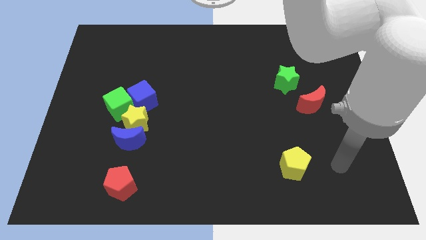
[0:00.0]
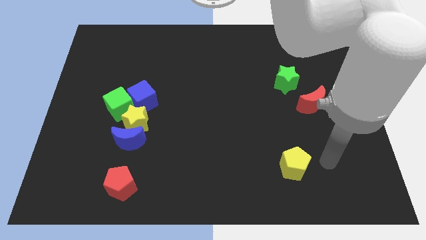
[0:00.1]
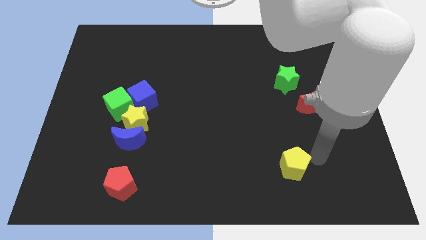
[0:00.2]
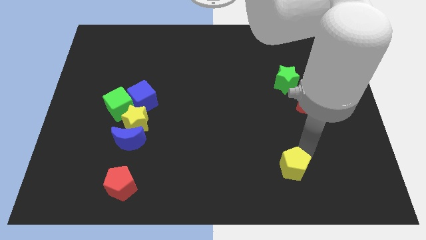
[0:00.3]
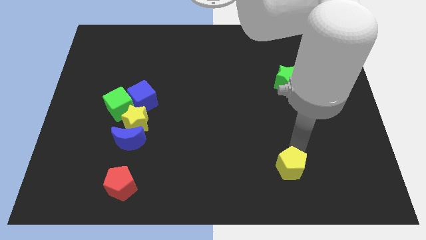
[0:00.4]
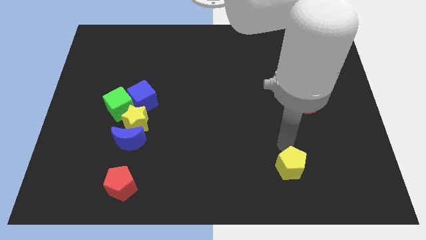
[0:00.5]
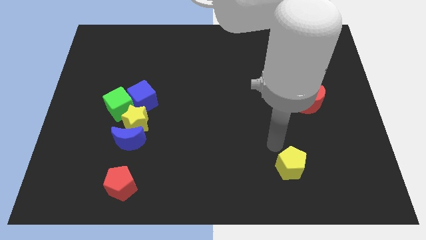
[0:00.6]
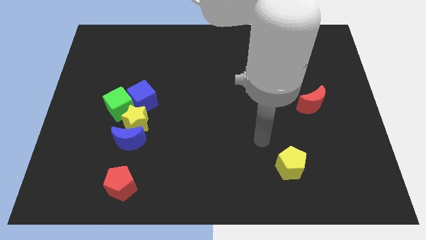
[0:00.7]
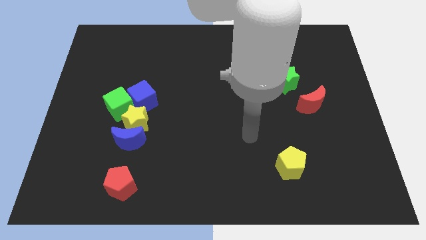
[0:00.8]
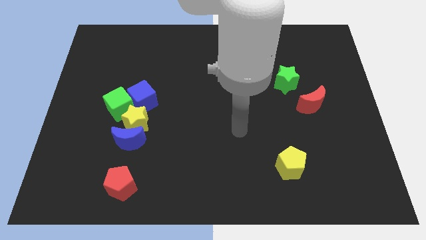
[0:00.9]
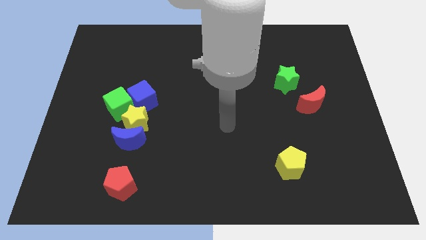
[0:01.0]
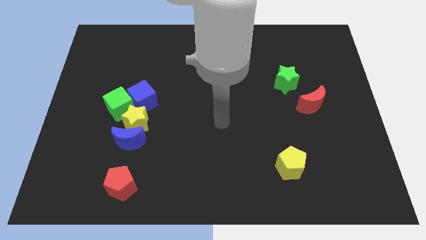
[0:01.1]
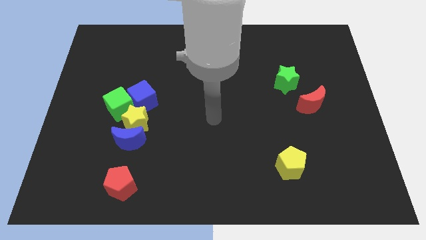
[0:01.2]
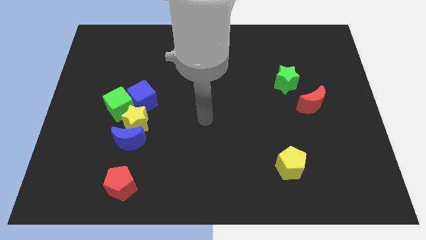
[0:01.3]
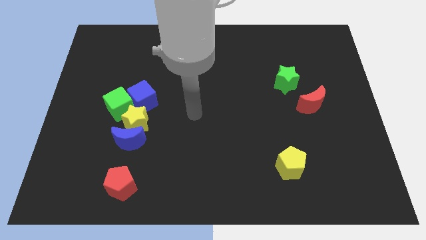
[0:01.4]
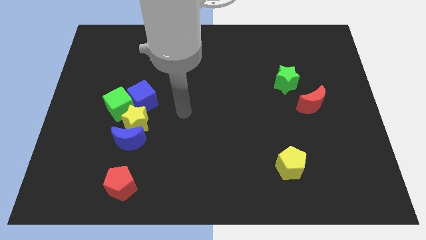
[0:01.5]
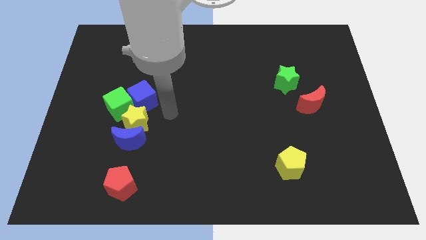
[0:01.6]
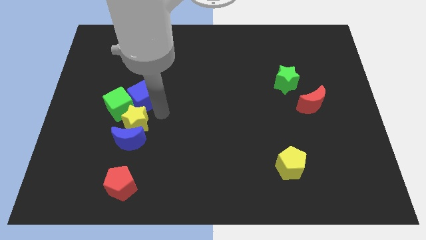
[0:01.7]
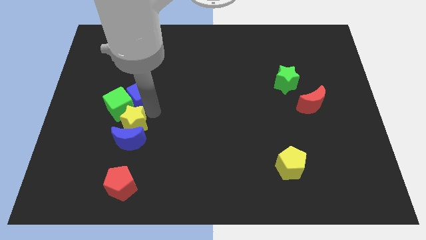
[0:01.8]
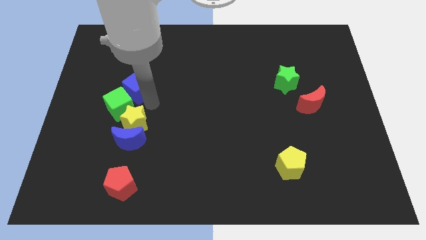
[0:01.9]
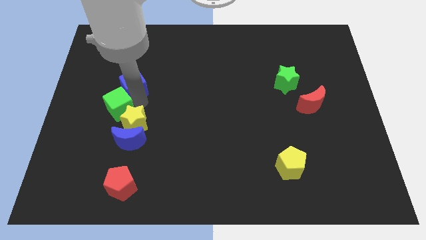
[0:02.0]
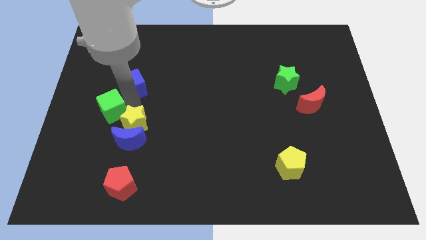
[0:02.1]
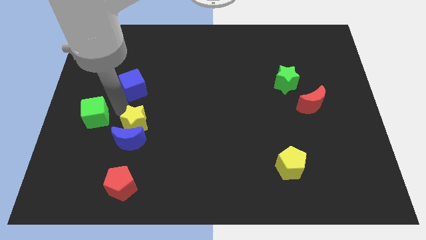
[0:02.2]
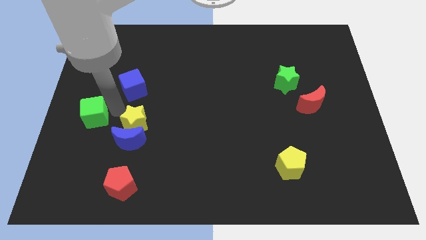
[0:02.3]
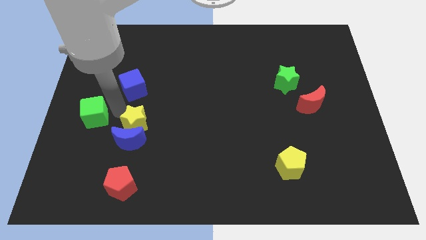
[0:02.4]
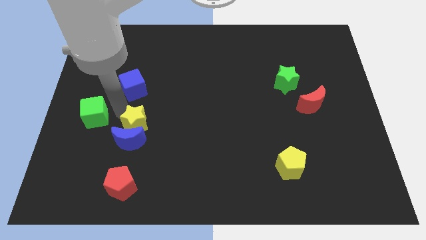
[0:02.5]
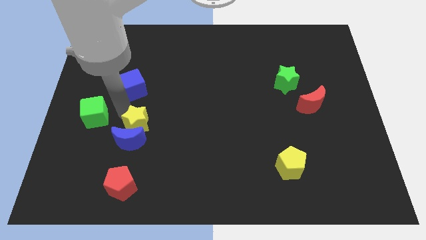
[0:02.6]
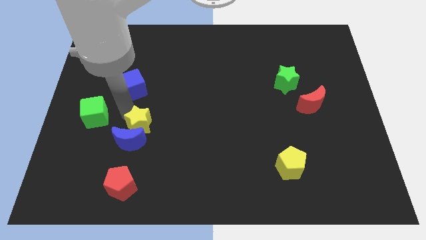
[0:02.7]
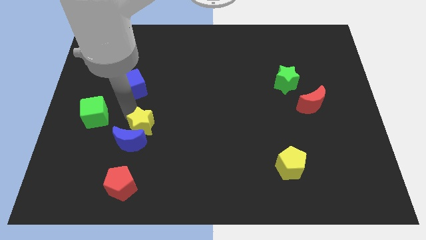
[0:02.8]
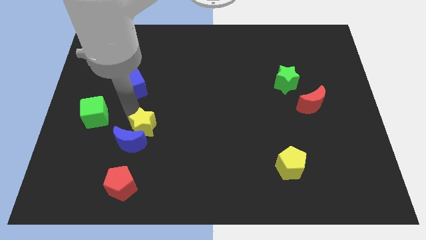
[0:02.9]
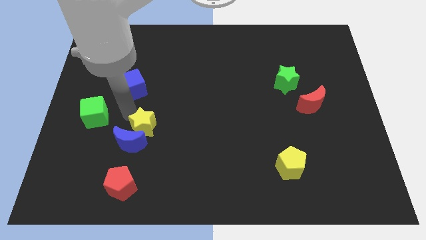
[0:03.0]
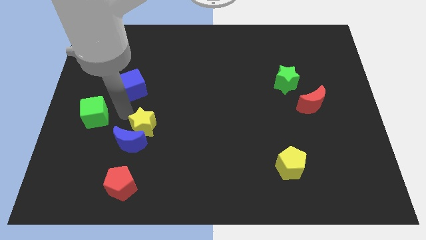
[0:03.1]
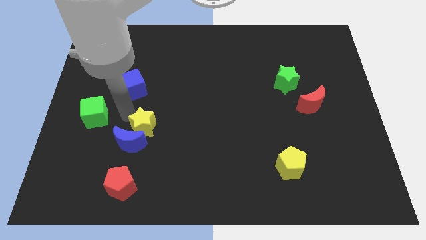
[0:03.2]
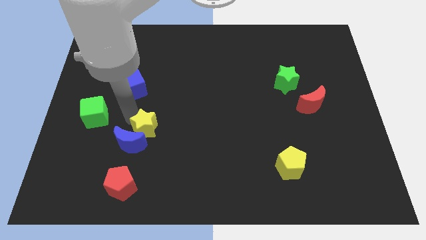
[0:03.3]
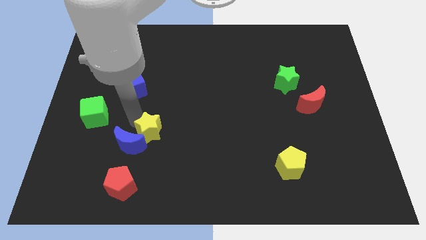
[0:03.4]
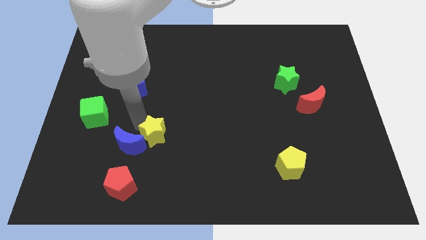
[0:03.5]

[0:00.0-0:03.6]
pull the yellow star apart from the group

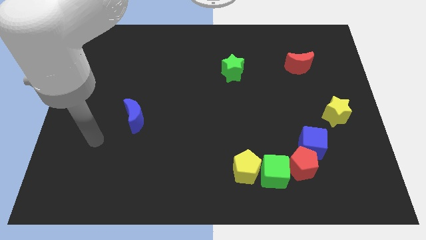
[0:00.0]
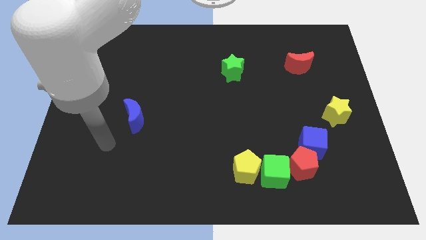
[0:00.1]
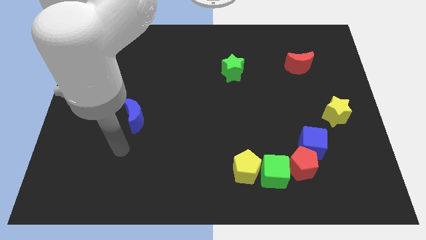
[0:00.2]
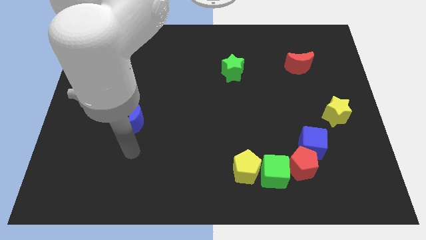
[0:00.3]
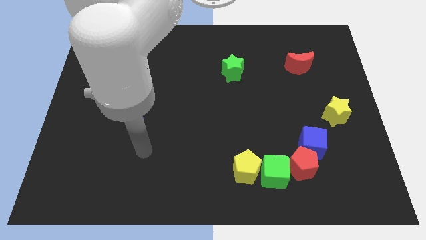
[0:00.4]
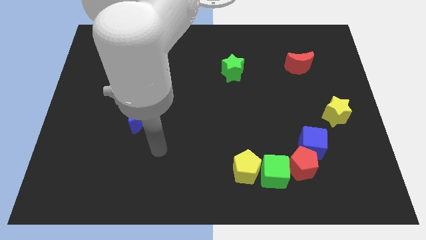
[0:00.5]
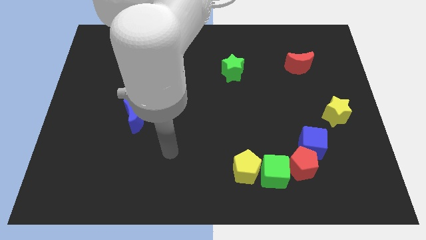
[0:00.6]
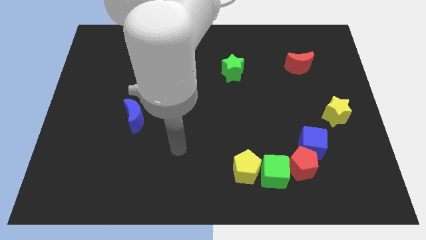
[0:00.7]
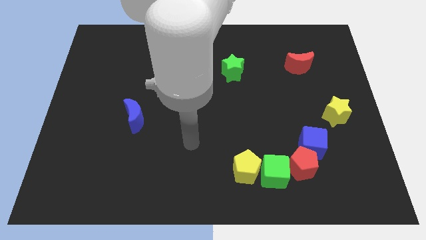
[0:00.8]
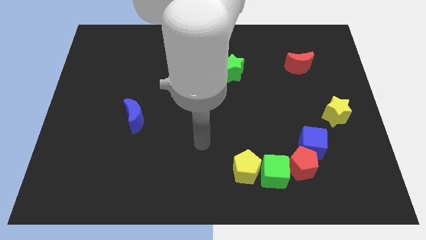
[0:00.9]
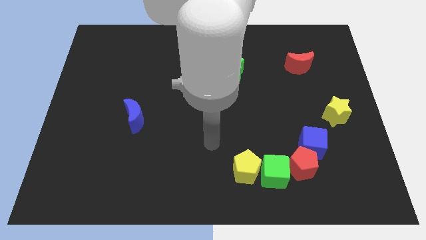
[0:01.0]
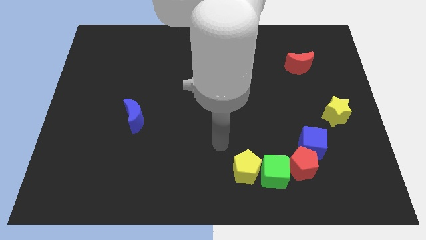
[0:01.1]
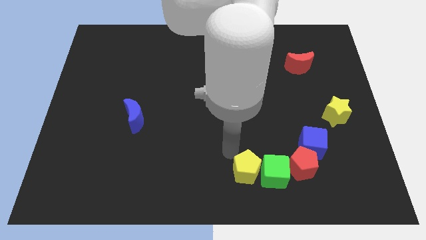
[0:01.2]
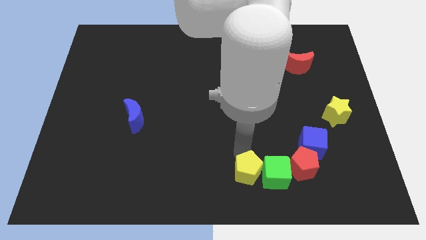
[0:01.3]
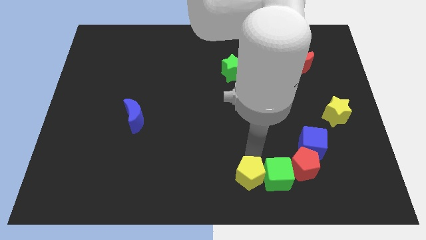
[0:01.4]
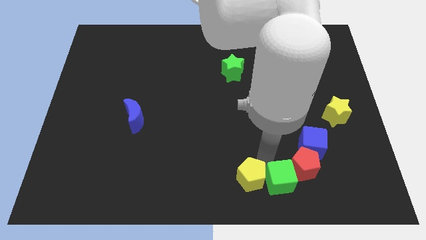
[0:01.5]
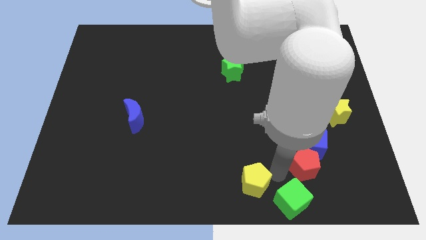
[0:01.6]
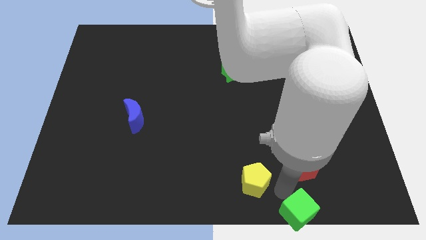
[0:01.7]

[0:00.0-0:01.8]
move the yellow pentagon away from the green cube

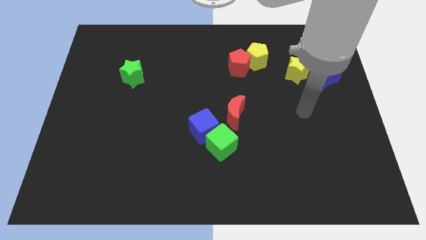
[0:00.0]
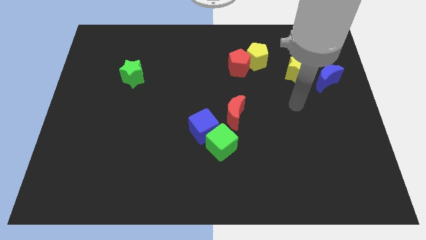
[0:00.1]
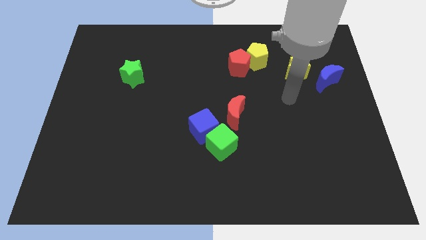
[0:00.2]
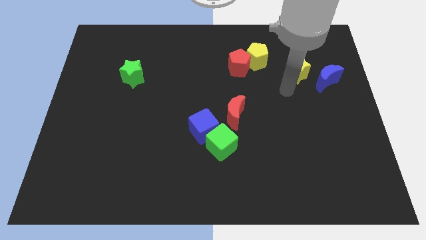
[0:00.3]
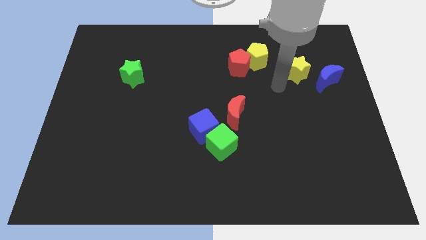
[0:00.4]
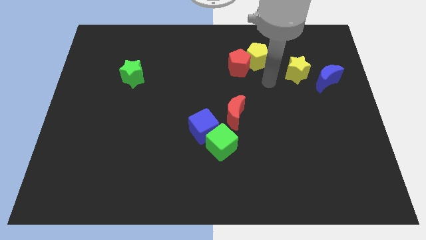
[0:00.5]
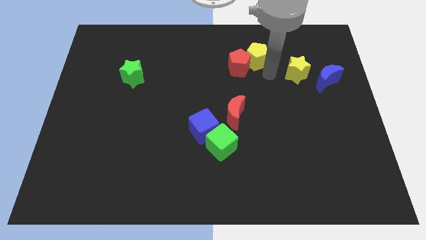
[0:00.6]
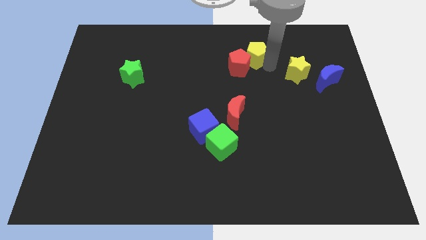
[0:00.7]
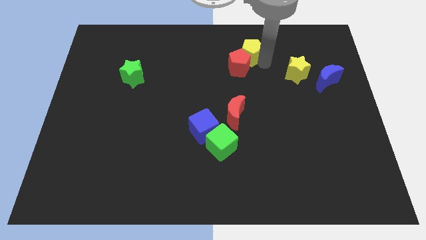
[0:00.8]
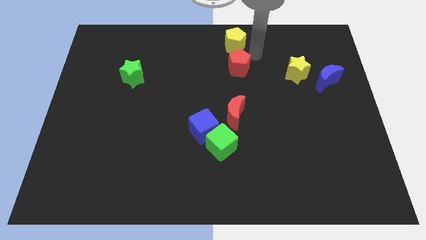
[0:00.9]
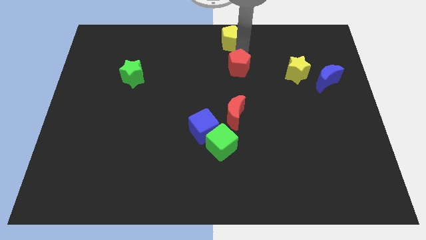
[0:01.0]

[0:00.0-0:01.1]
pull the red pentagon apart from the yellow pentagon

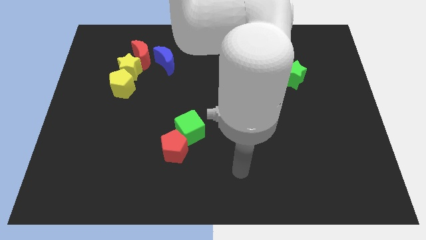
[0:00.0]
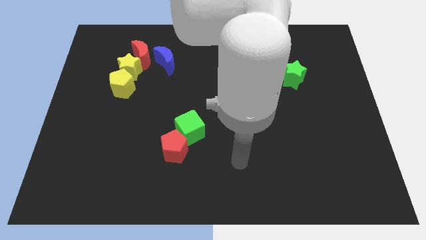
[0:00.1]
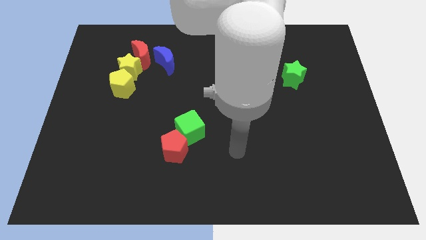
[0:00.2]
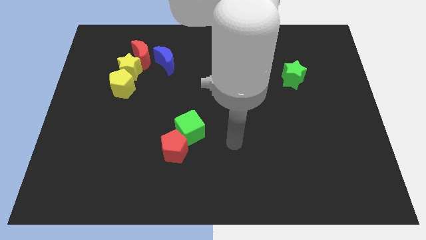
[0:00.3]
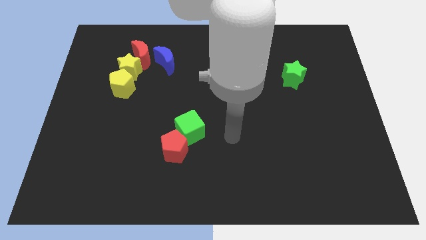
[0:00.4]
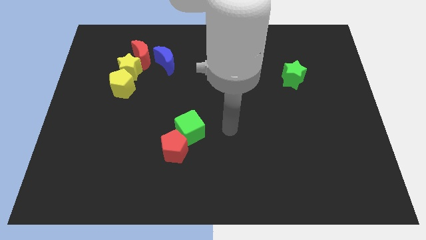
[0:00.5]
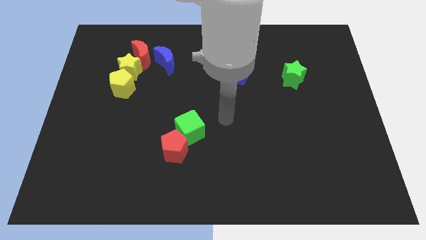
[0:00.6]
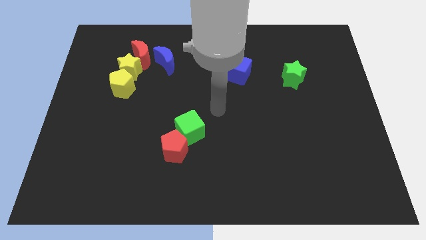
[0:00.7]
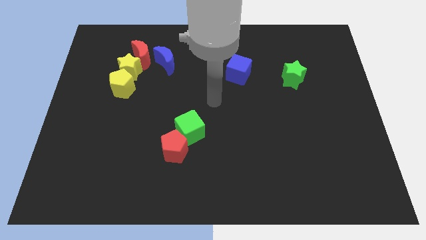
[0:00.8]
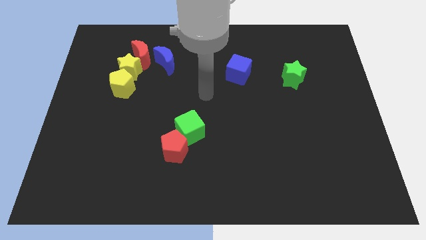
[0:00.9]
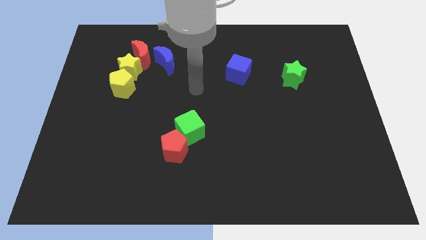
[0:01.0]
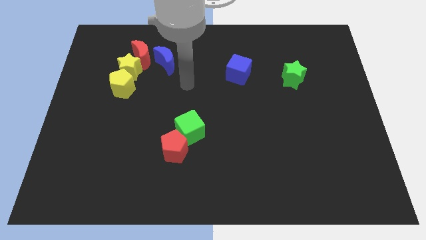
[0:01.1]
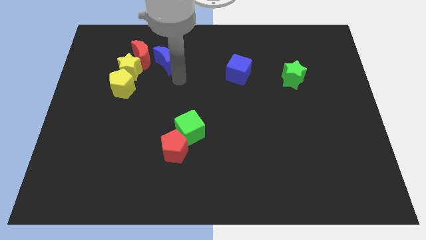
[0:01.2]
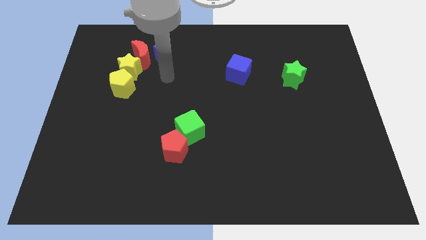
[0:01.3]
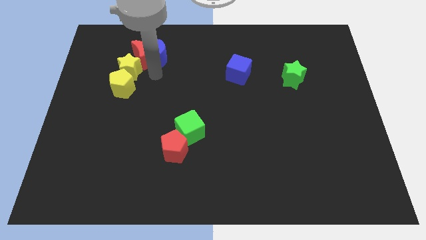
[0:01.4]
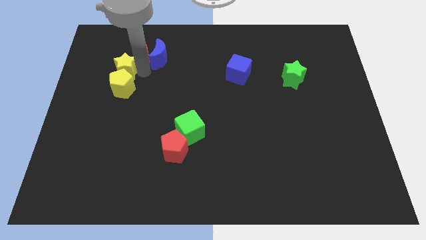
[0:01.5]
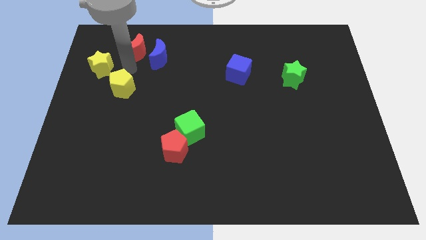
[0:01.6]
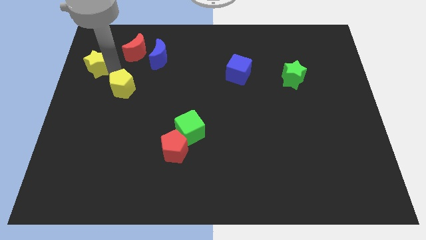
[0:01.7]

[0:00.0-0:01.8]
pull the yellow pentagon apart from the yellow star

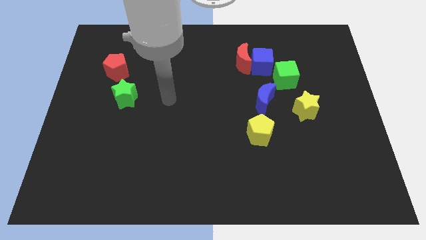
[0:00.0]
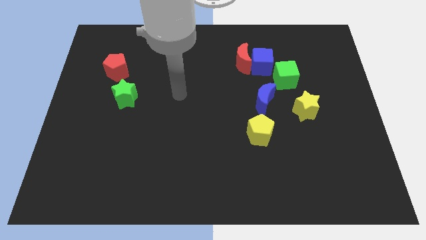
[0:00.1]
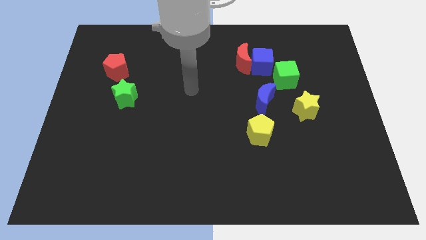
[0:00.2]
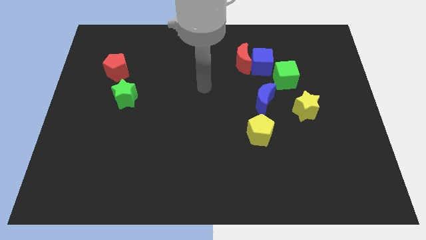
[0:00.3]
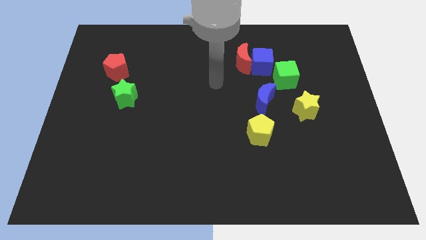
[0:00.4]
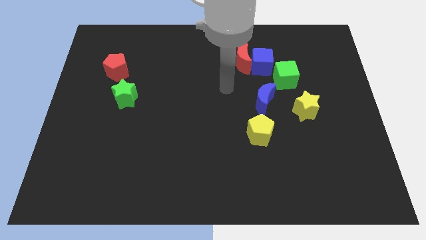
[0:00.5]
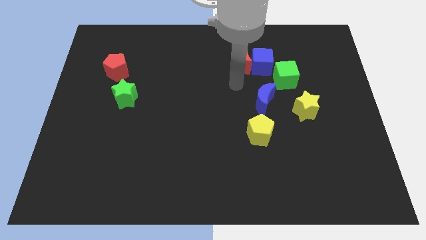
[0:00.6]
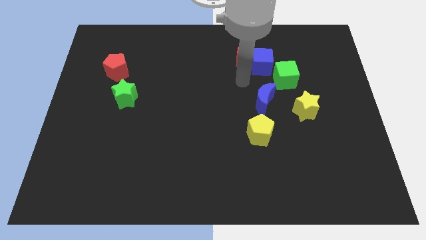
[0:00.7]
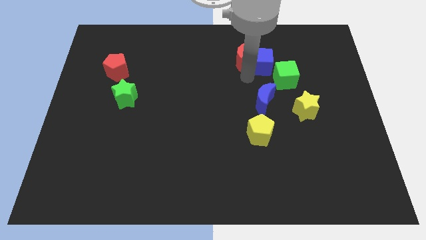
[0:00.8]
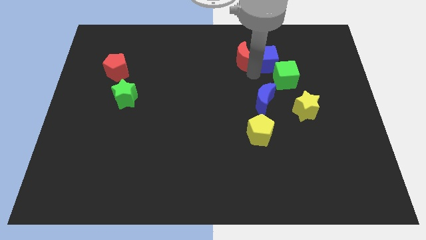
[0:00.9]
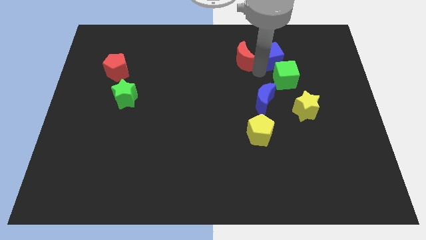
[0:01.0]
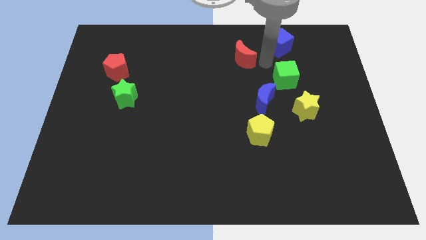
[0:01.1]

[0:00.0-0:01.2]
separate the red moon from the blue cube
